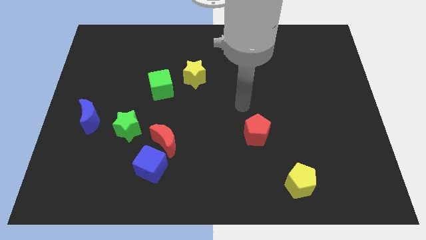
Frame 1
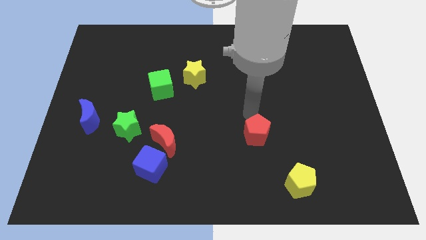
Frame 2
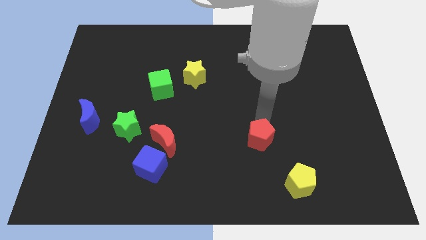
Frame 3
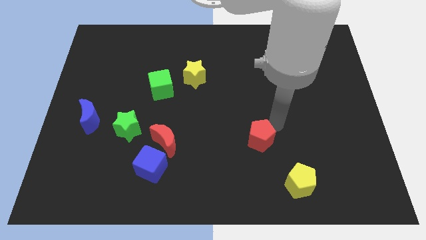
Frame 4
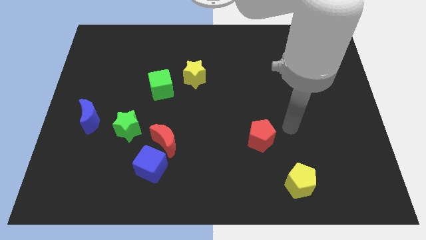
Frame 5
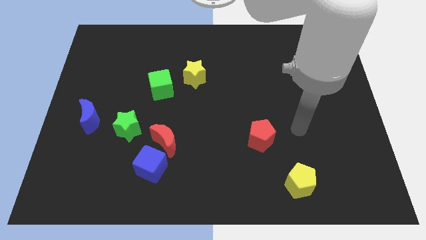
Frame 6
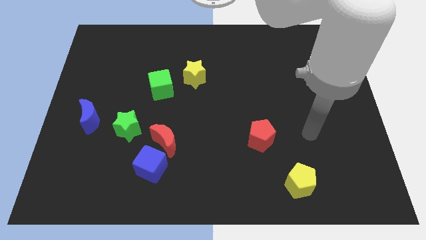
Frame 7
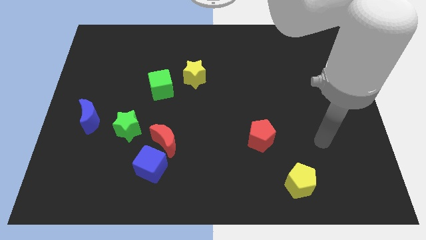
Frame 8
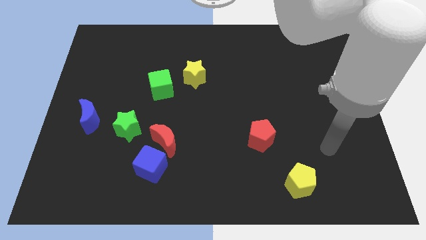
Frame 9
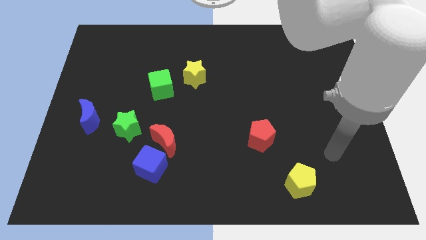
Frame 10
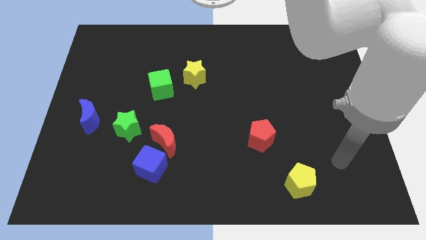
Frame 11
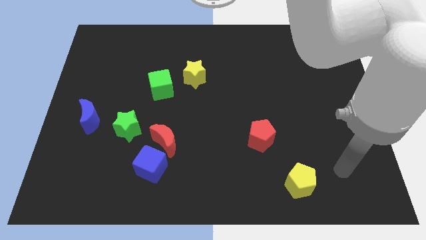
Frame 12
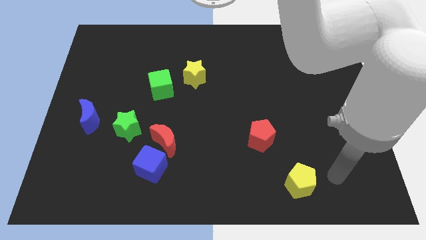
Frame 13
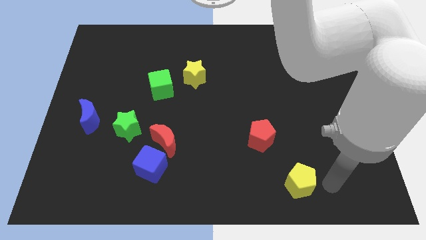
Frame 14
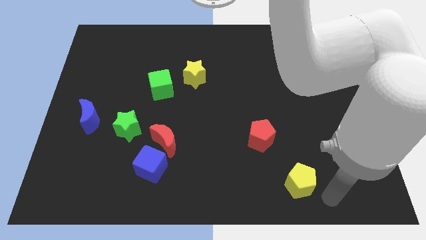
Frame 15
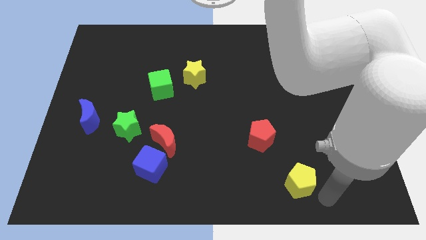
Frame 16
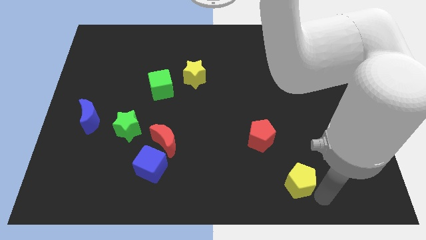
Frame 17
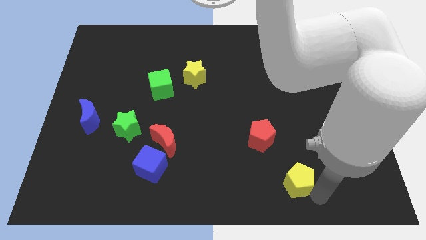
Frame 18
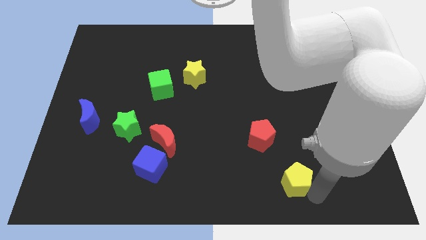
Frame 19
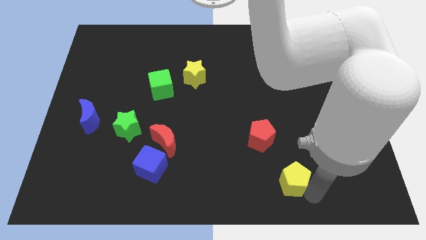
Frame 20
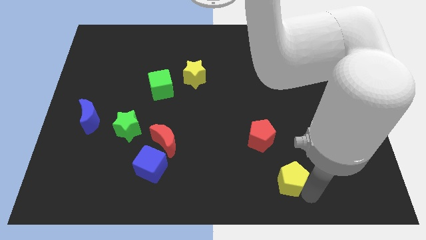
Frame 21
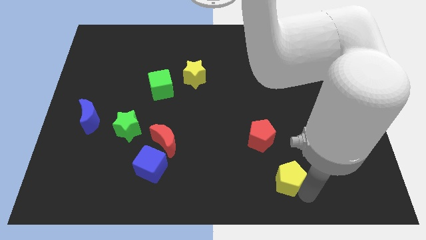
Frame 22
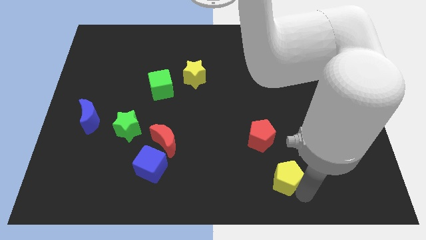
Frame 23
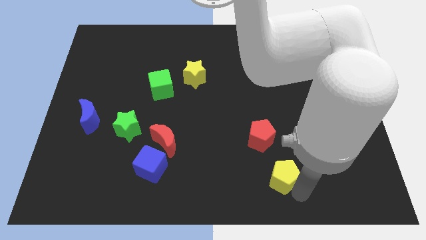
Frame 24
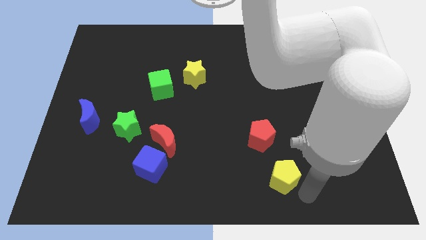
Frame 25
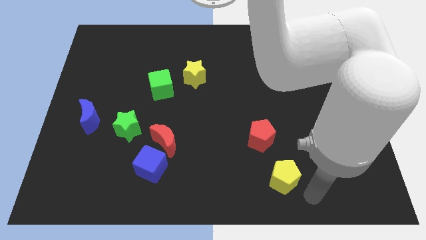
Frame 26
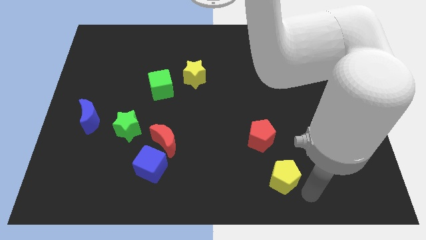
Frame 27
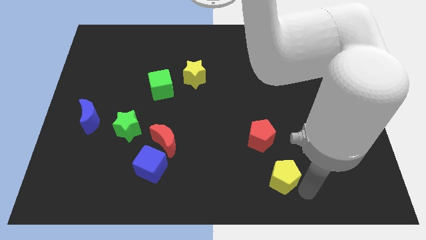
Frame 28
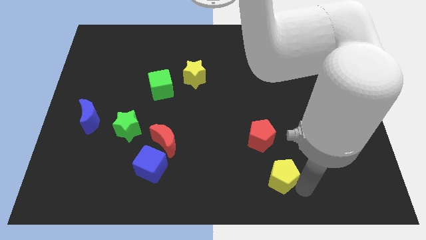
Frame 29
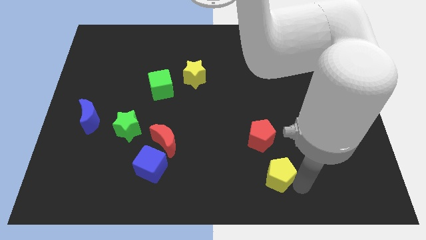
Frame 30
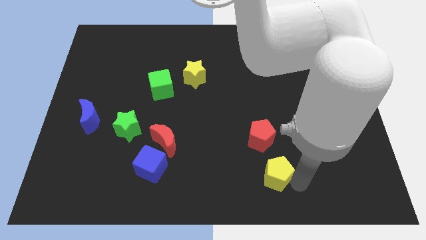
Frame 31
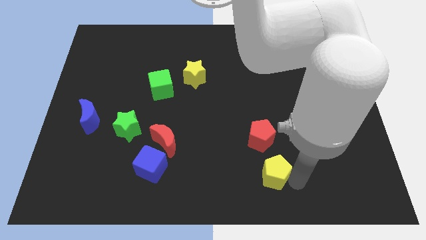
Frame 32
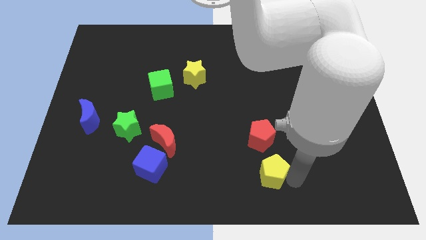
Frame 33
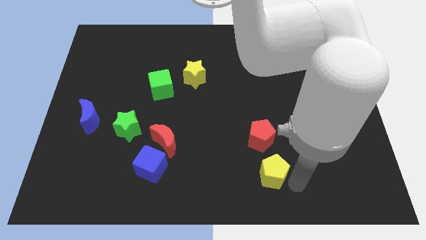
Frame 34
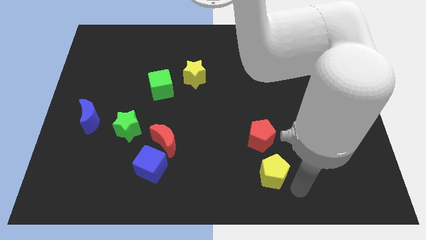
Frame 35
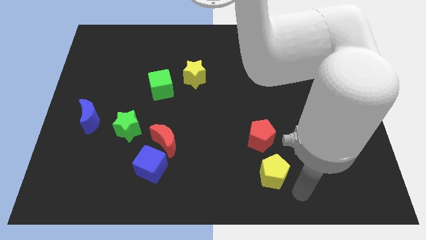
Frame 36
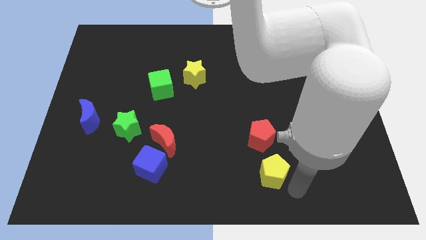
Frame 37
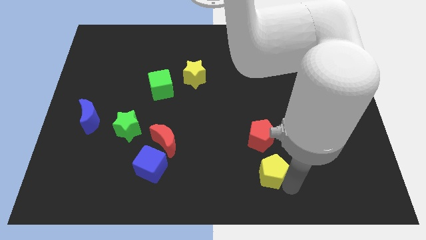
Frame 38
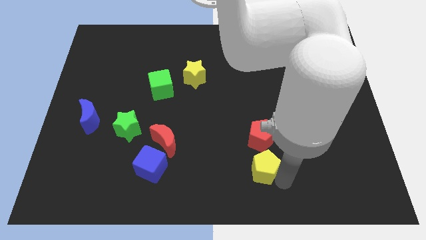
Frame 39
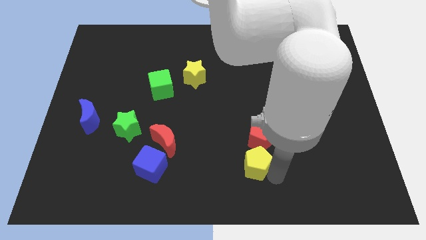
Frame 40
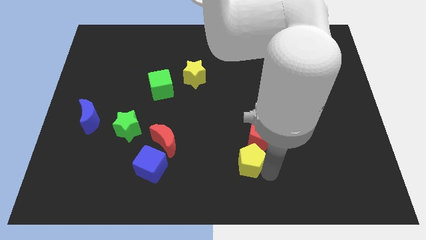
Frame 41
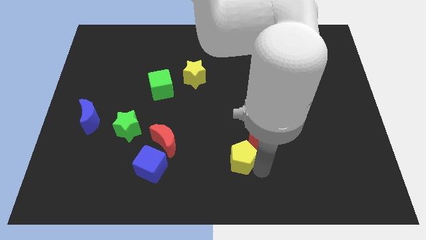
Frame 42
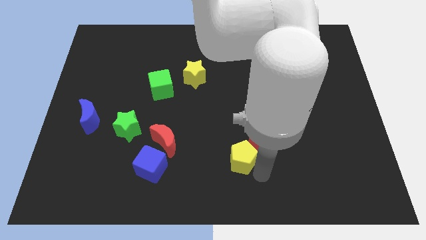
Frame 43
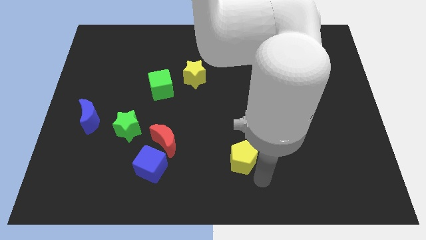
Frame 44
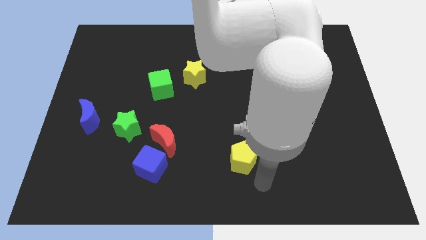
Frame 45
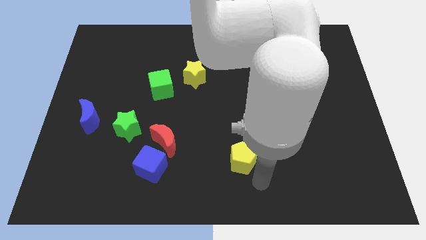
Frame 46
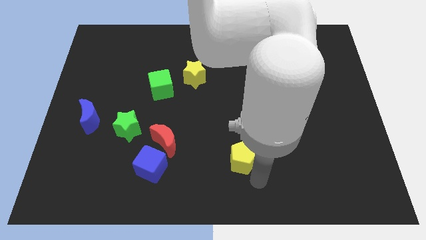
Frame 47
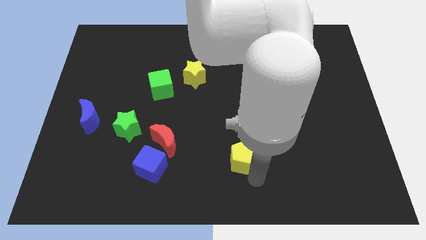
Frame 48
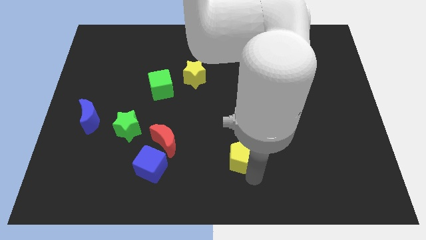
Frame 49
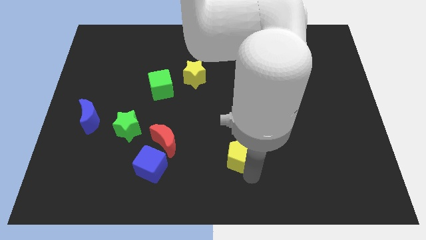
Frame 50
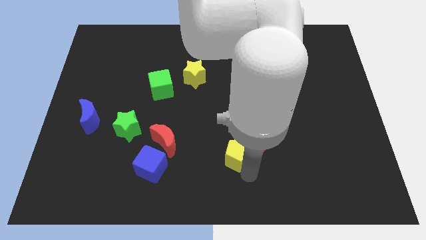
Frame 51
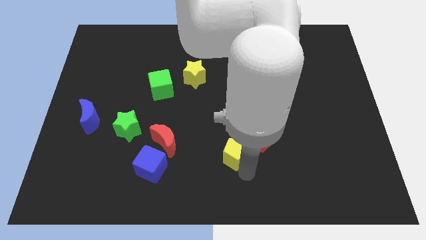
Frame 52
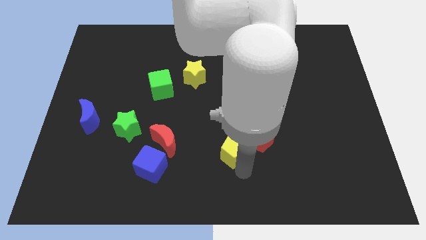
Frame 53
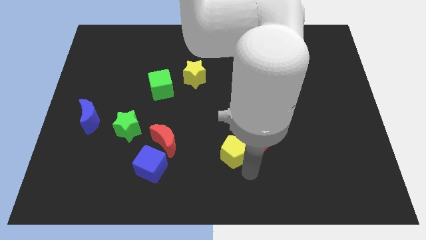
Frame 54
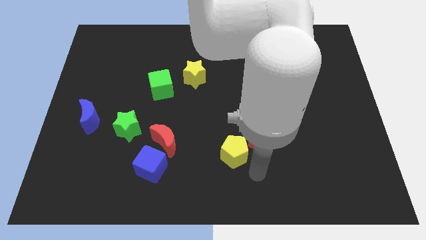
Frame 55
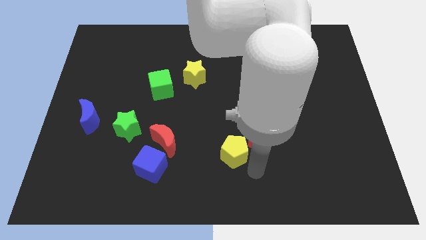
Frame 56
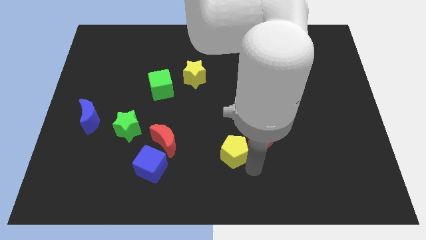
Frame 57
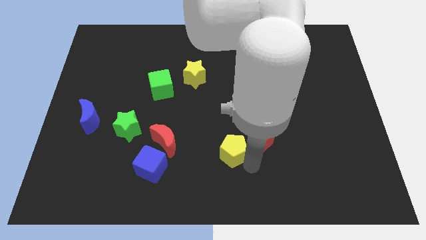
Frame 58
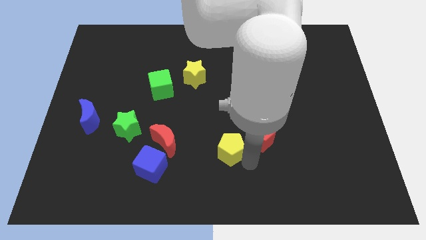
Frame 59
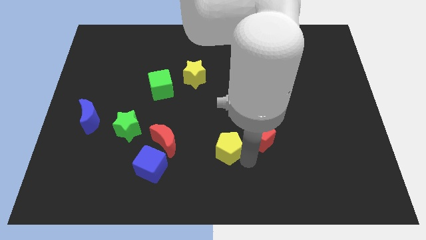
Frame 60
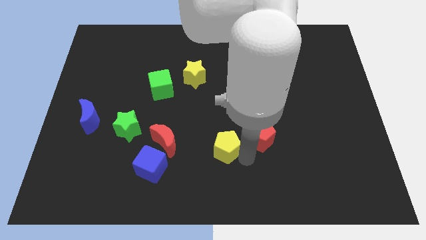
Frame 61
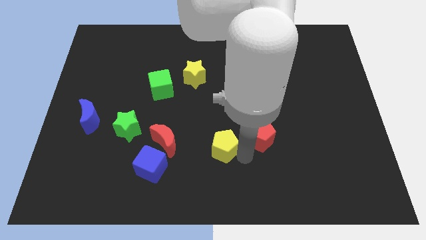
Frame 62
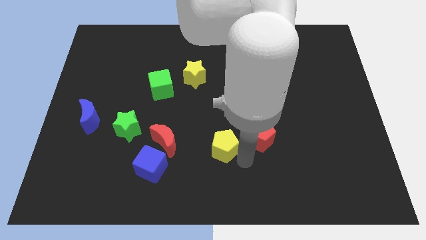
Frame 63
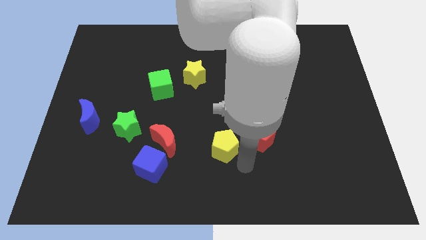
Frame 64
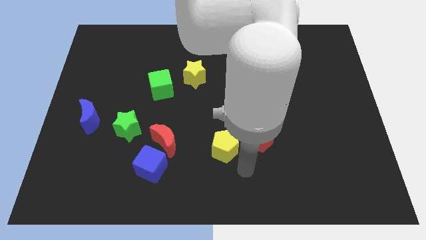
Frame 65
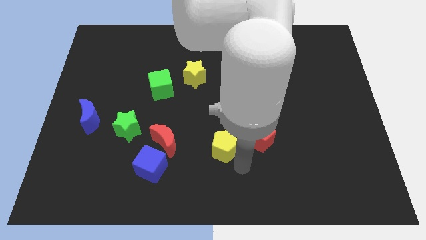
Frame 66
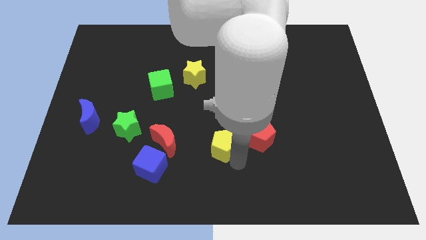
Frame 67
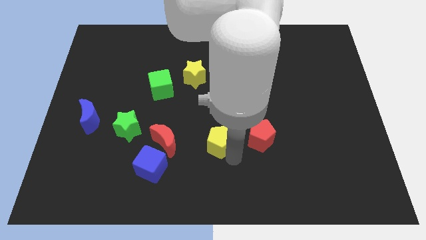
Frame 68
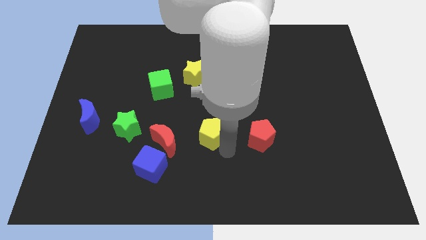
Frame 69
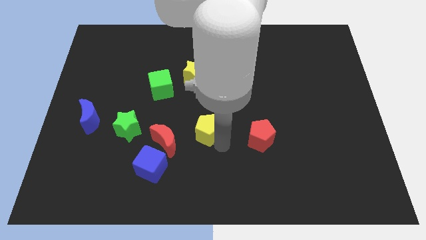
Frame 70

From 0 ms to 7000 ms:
put the yellow pentagon diagonally up and to the right of the red moon

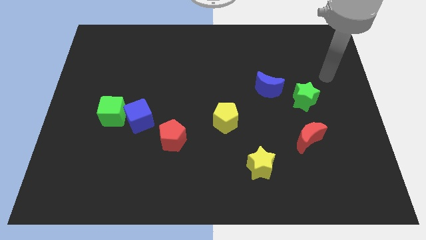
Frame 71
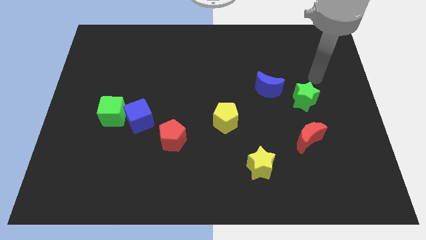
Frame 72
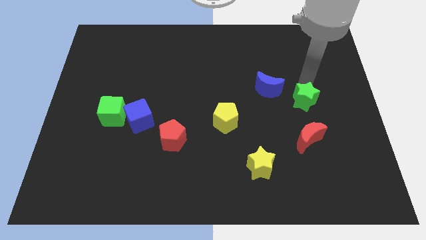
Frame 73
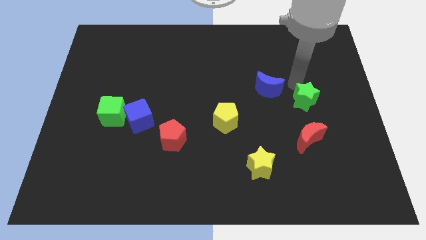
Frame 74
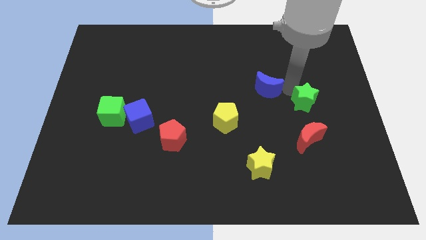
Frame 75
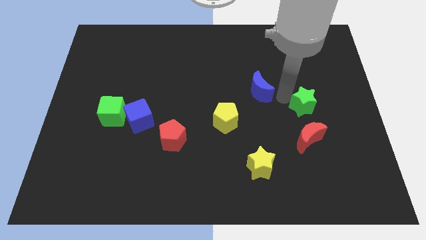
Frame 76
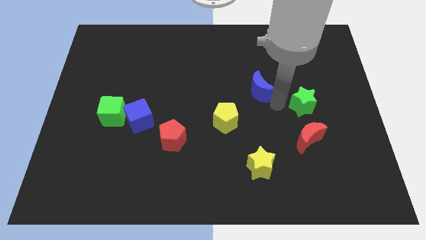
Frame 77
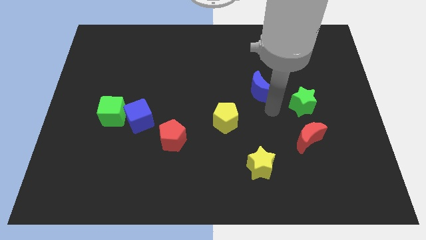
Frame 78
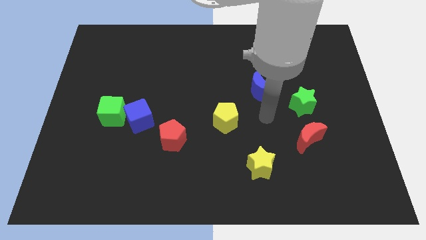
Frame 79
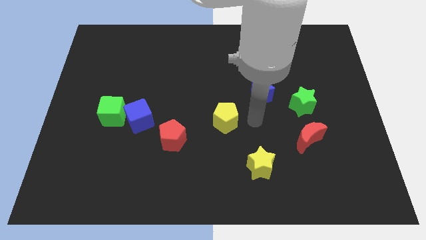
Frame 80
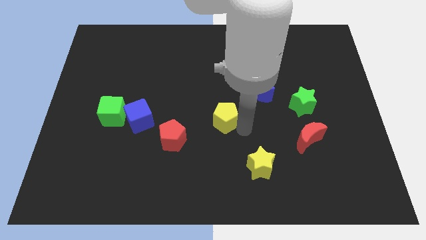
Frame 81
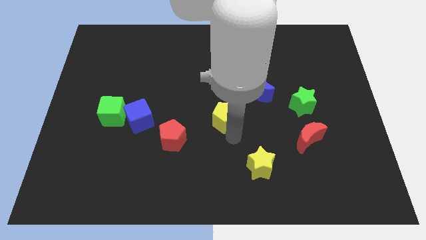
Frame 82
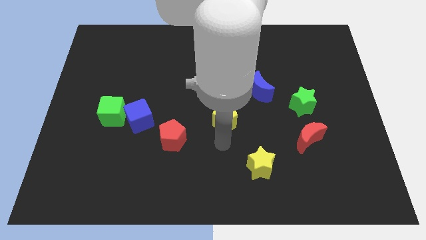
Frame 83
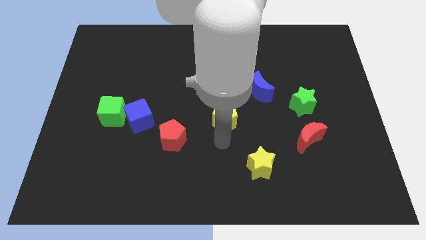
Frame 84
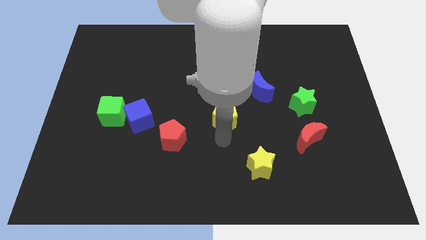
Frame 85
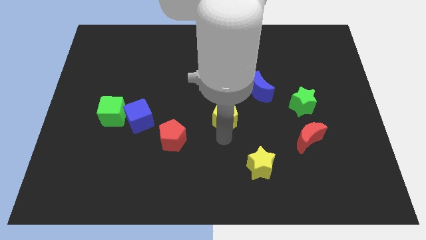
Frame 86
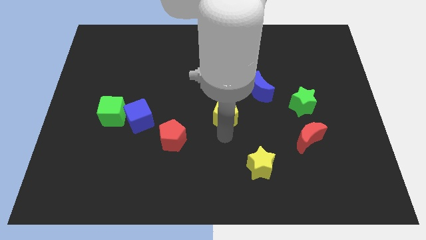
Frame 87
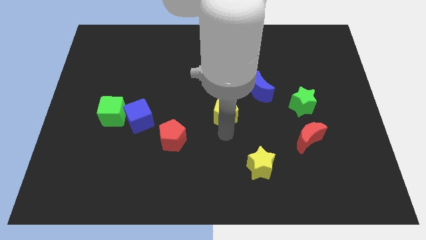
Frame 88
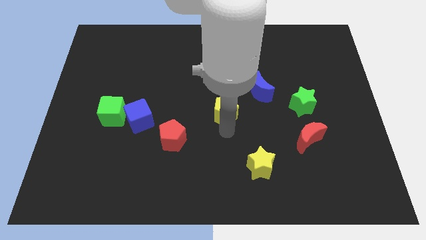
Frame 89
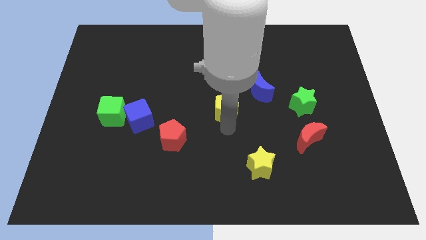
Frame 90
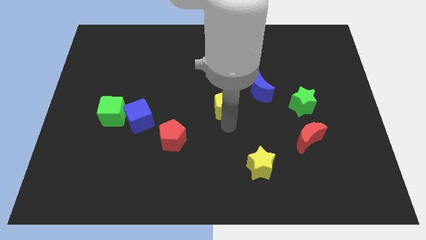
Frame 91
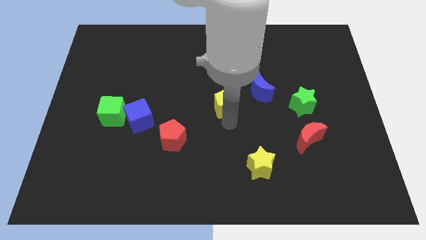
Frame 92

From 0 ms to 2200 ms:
push the yellow pentagon just left of the blue moon
